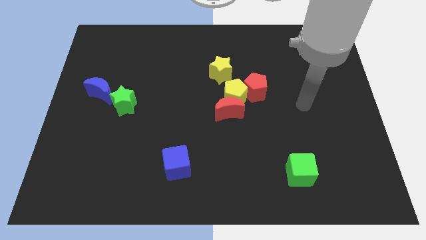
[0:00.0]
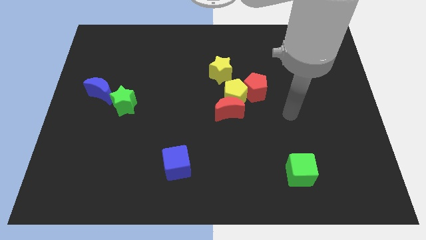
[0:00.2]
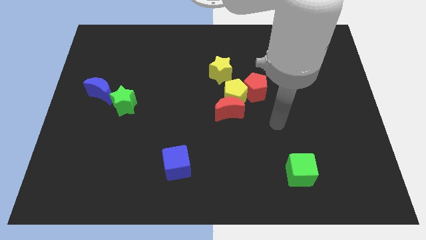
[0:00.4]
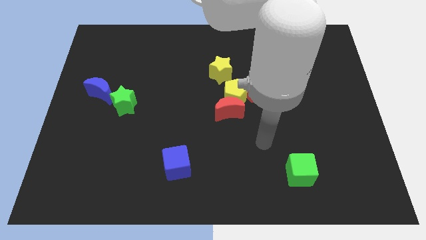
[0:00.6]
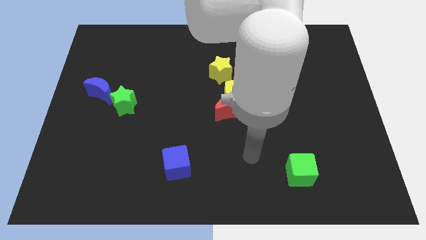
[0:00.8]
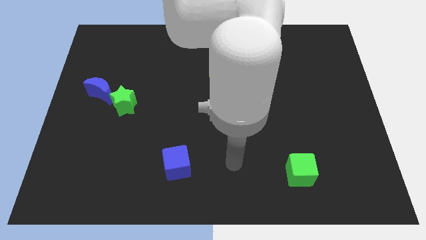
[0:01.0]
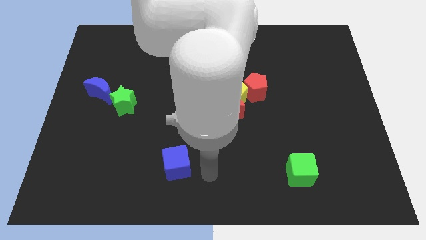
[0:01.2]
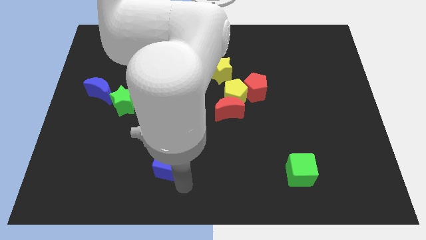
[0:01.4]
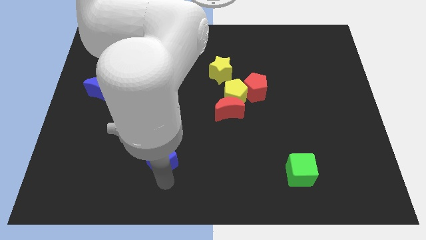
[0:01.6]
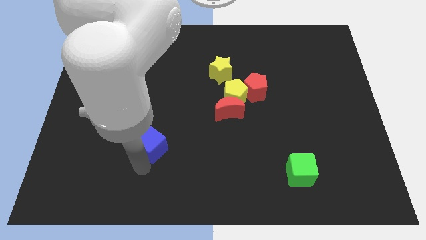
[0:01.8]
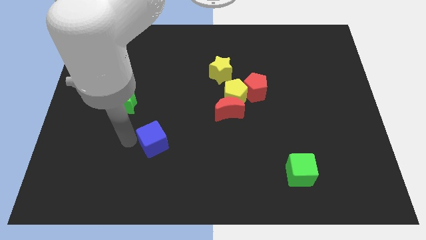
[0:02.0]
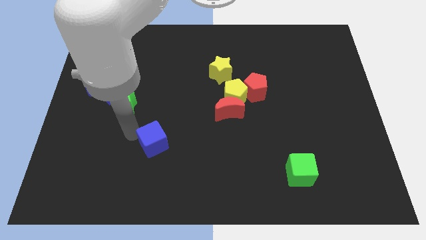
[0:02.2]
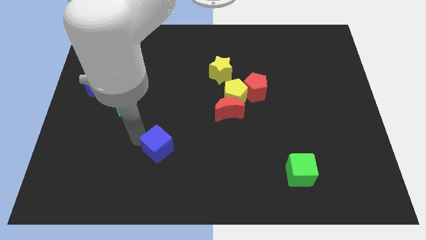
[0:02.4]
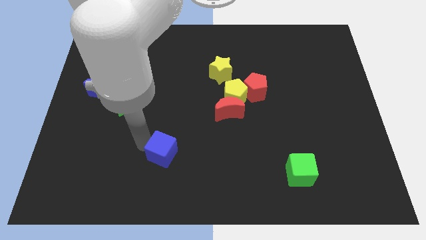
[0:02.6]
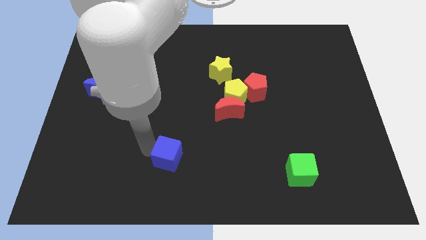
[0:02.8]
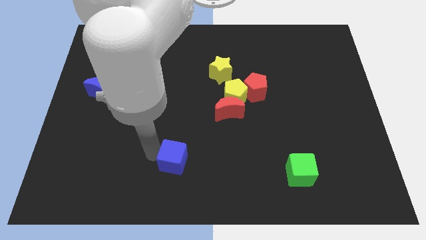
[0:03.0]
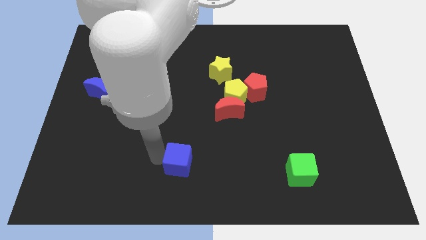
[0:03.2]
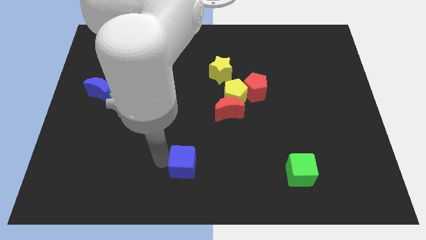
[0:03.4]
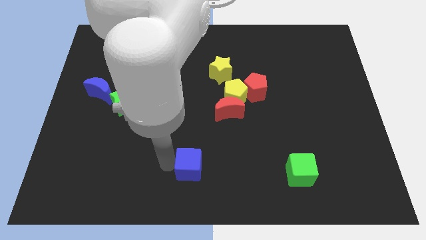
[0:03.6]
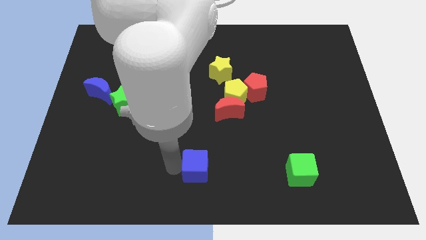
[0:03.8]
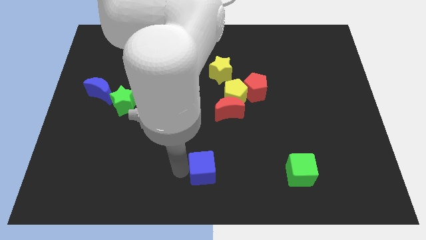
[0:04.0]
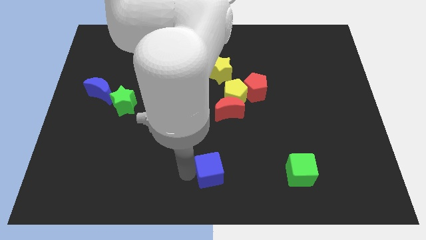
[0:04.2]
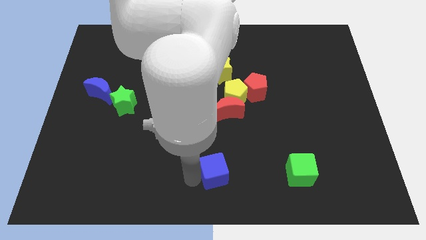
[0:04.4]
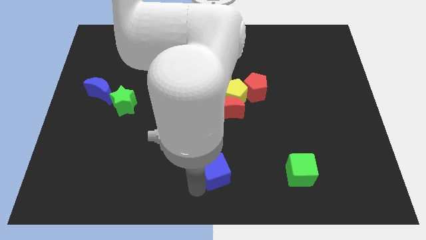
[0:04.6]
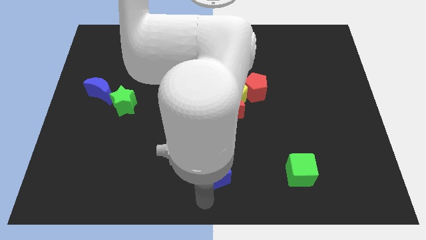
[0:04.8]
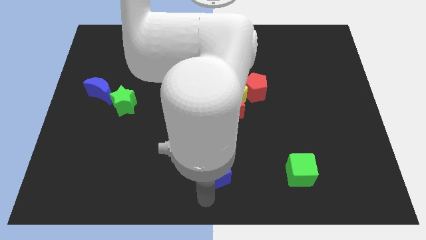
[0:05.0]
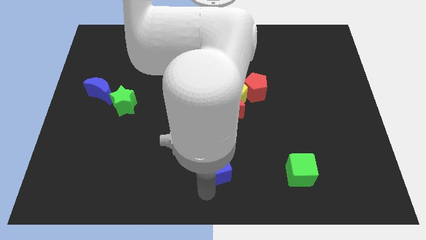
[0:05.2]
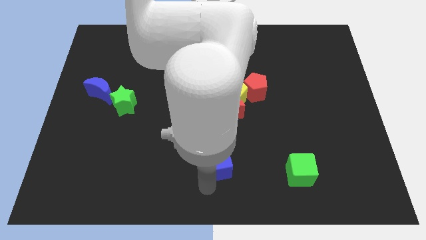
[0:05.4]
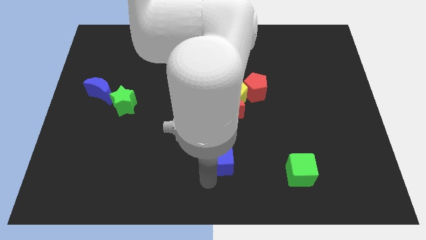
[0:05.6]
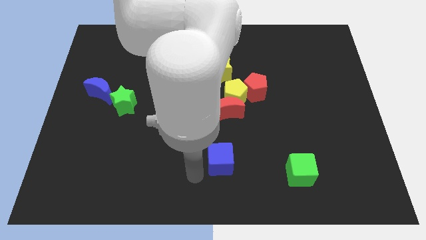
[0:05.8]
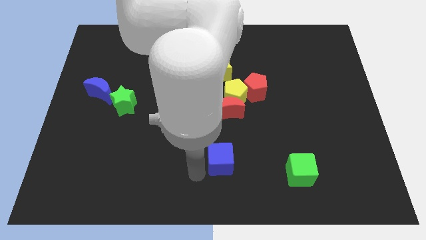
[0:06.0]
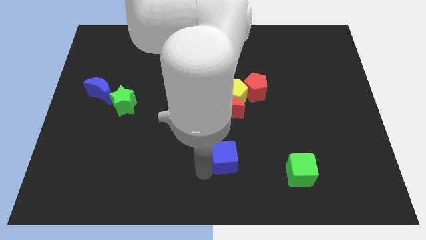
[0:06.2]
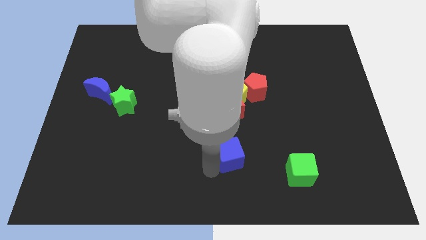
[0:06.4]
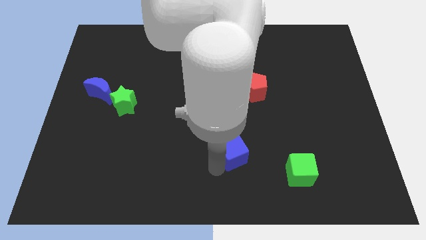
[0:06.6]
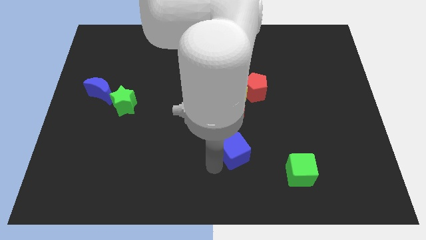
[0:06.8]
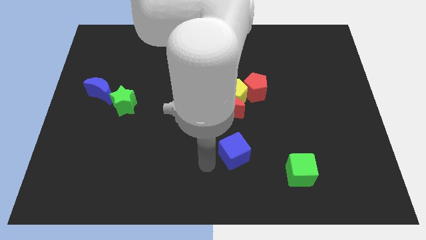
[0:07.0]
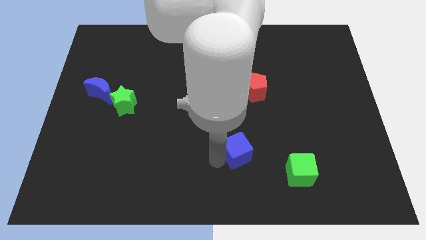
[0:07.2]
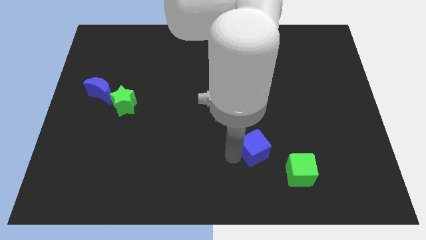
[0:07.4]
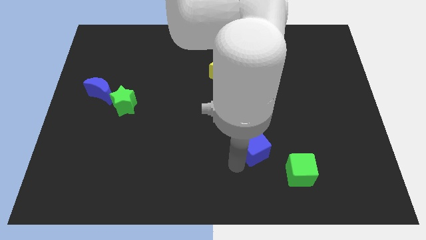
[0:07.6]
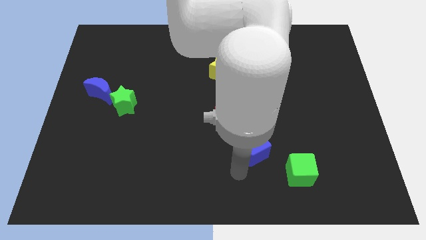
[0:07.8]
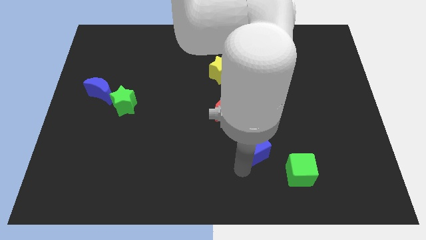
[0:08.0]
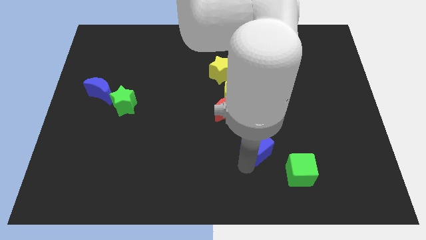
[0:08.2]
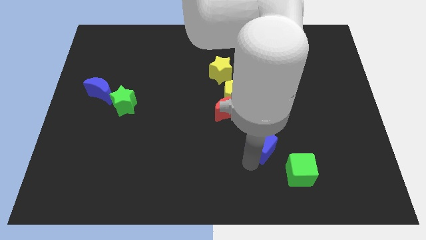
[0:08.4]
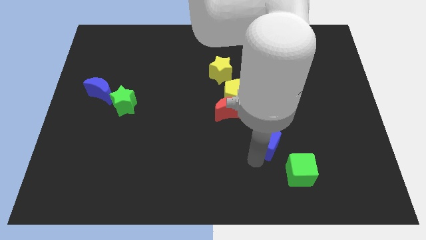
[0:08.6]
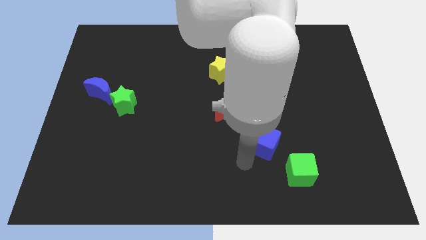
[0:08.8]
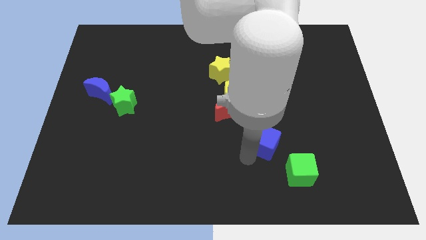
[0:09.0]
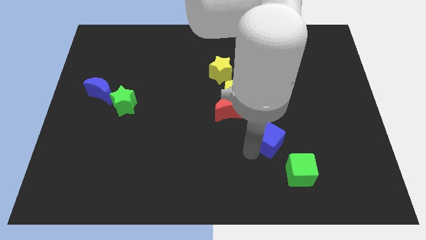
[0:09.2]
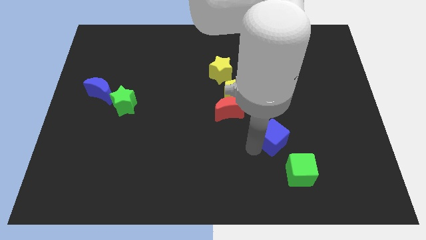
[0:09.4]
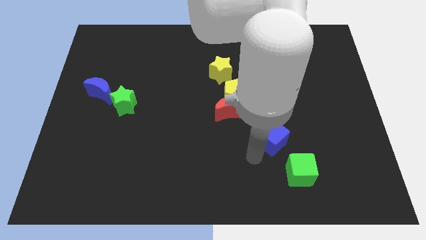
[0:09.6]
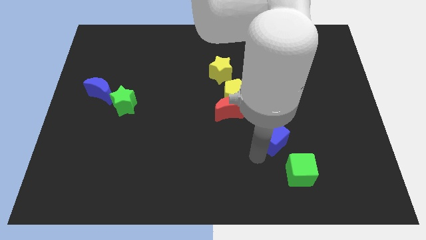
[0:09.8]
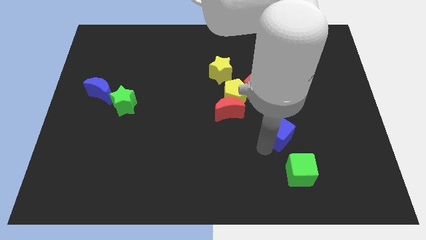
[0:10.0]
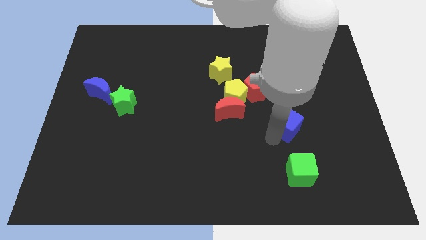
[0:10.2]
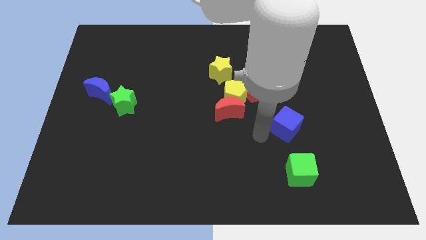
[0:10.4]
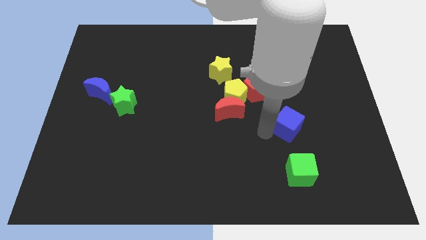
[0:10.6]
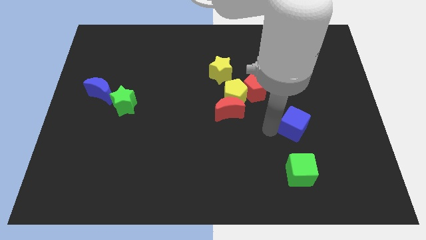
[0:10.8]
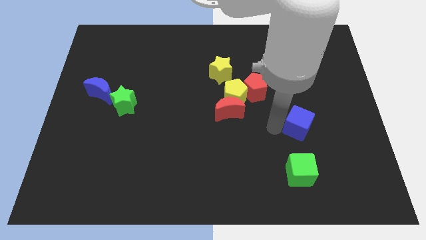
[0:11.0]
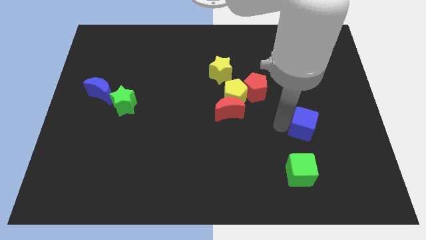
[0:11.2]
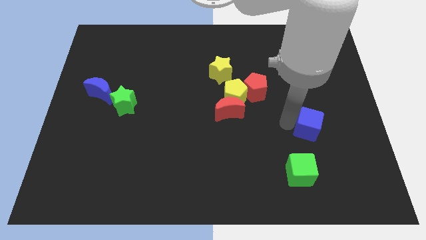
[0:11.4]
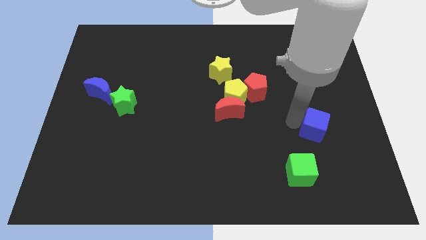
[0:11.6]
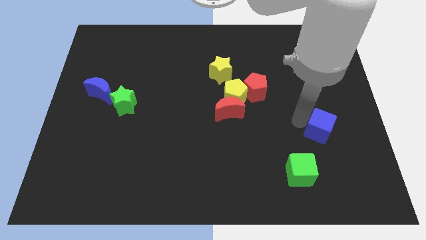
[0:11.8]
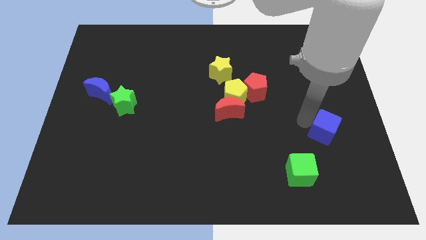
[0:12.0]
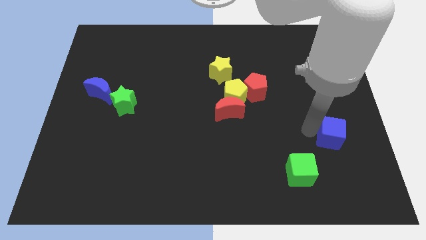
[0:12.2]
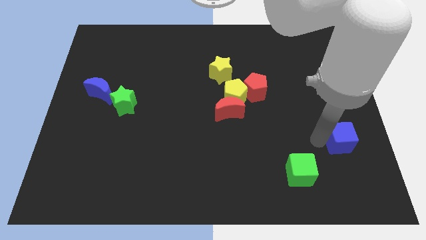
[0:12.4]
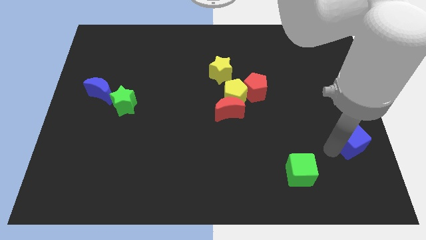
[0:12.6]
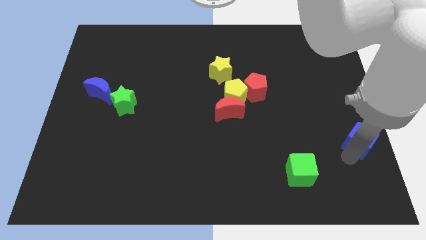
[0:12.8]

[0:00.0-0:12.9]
put the blue cube to the right side of the board
